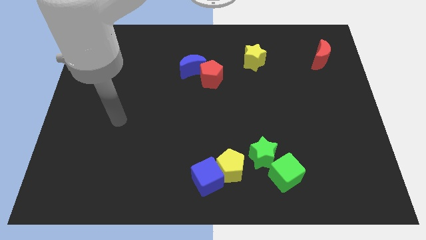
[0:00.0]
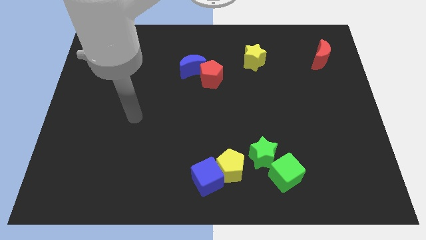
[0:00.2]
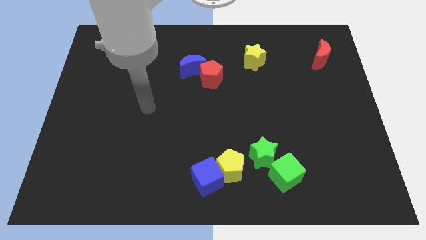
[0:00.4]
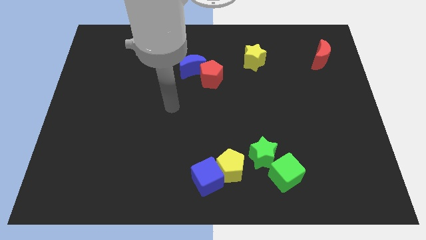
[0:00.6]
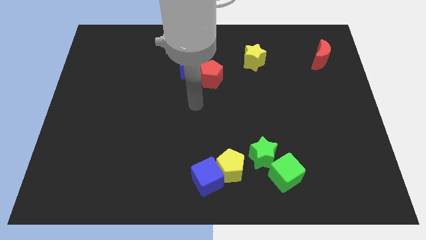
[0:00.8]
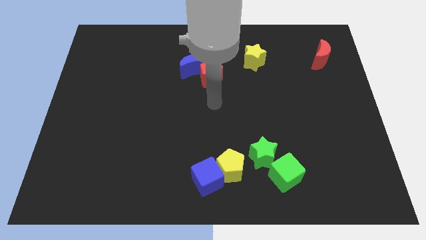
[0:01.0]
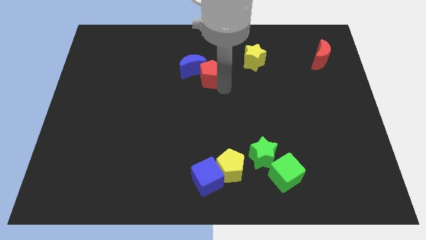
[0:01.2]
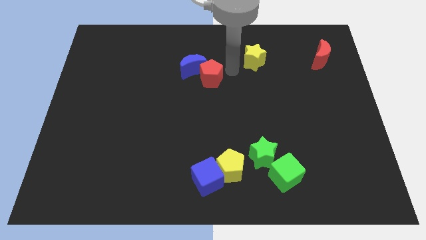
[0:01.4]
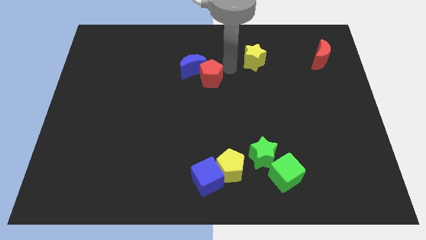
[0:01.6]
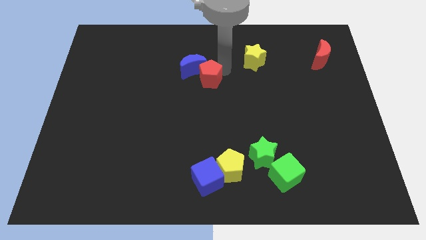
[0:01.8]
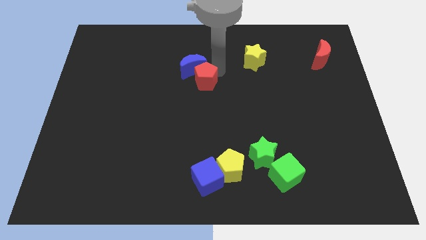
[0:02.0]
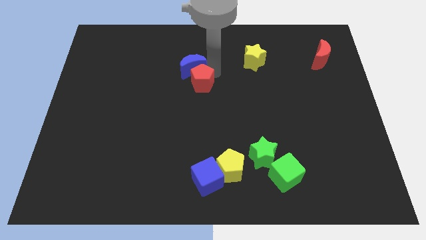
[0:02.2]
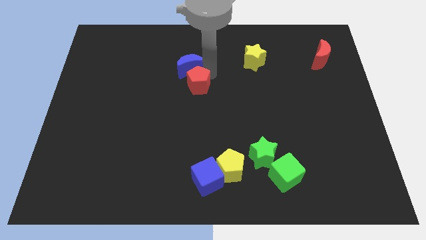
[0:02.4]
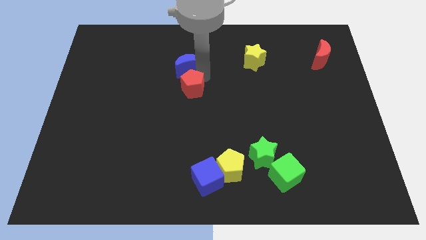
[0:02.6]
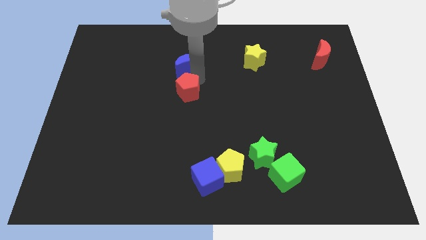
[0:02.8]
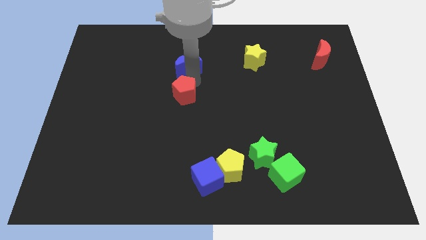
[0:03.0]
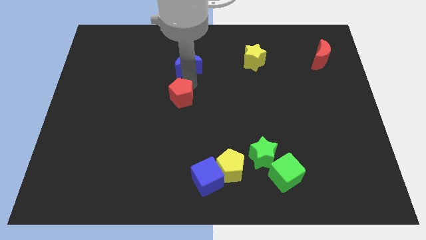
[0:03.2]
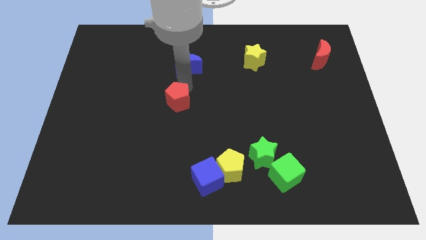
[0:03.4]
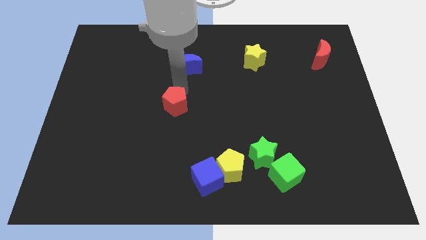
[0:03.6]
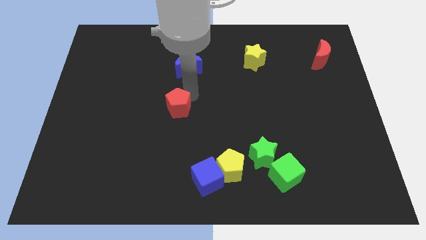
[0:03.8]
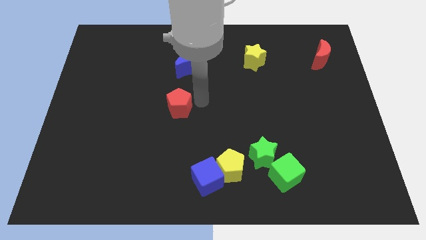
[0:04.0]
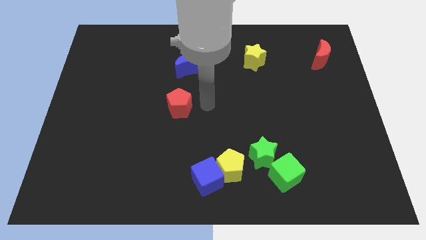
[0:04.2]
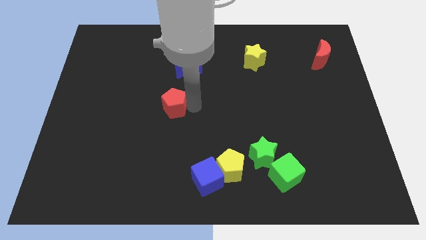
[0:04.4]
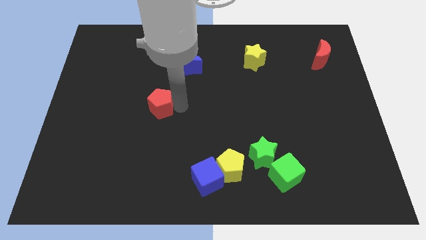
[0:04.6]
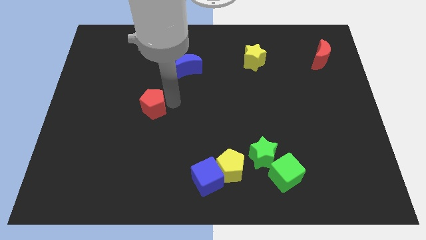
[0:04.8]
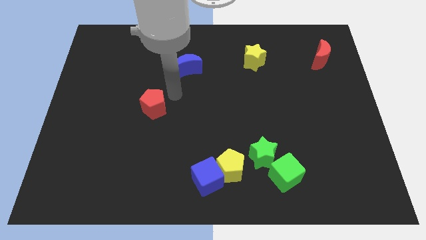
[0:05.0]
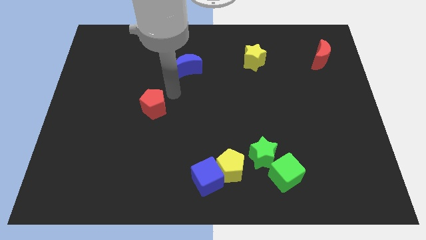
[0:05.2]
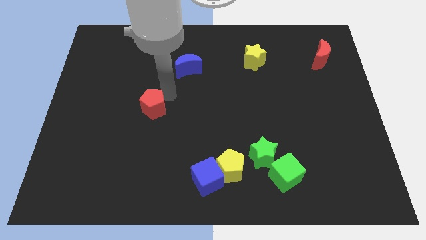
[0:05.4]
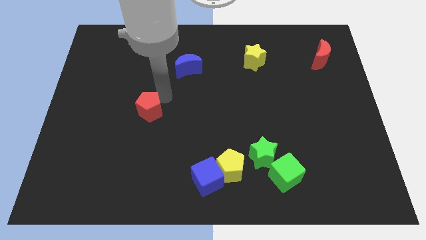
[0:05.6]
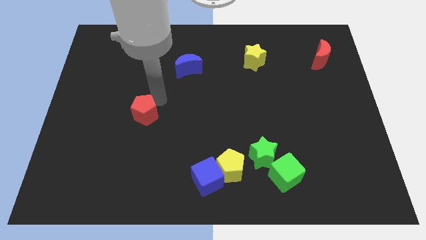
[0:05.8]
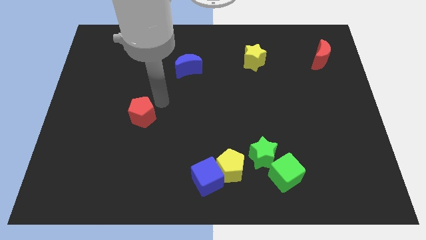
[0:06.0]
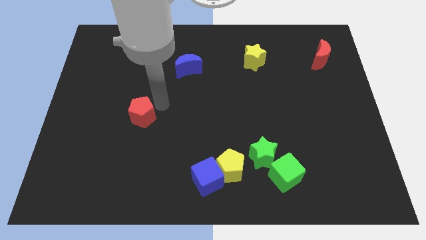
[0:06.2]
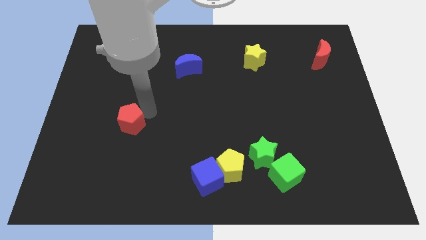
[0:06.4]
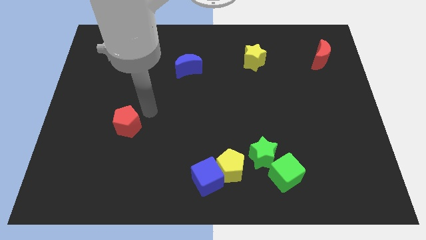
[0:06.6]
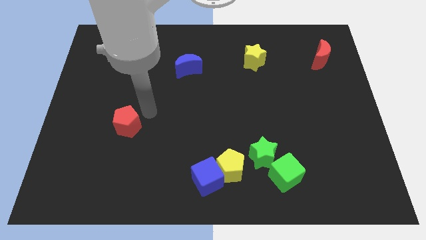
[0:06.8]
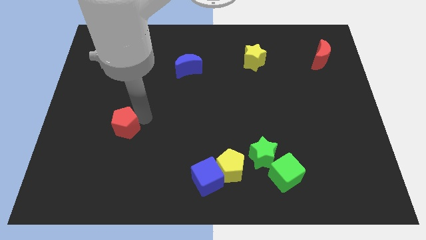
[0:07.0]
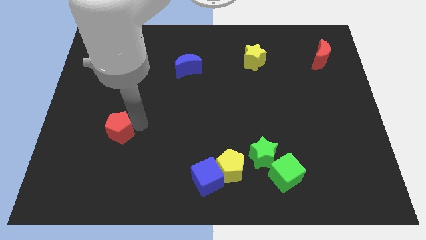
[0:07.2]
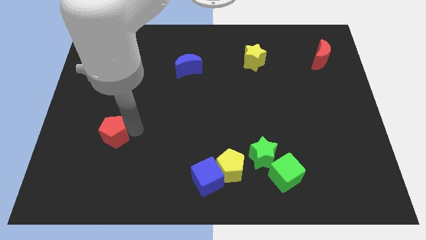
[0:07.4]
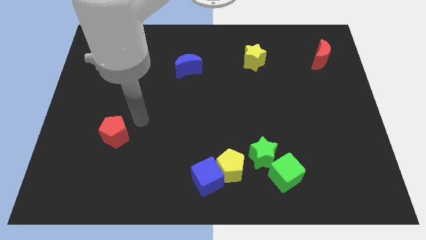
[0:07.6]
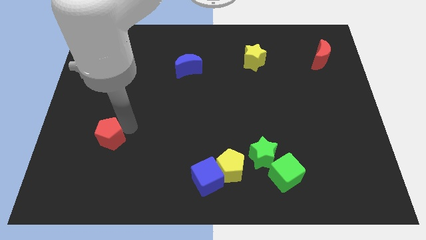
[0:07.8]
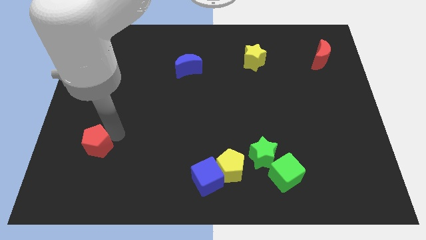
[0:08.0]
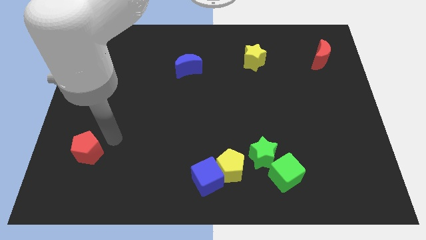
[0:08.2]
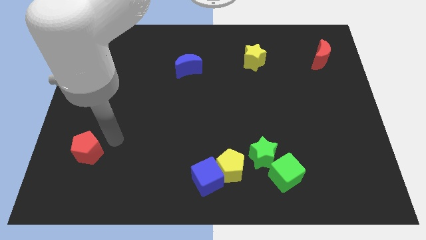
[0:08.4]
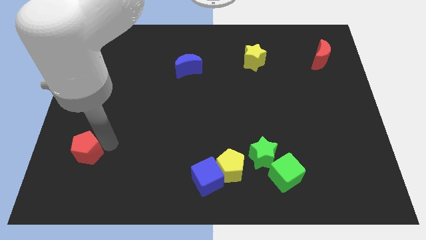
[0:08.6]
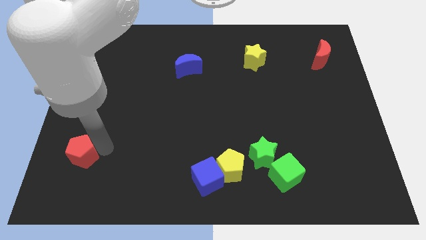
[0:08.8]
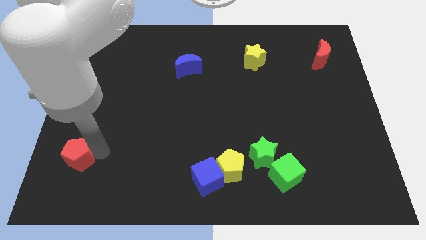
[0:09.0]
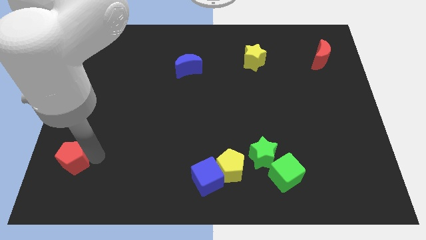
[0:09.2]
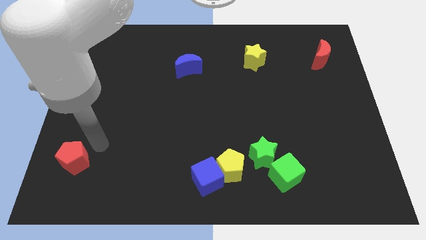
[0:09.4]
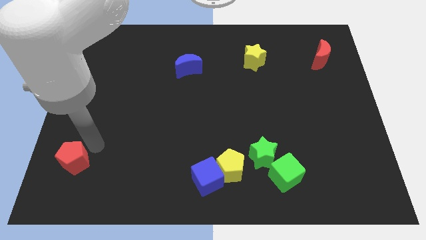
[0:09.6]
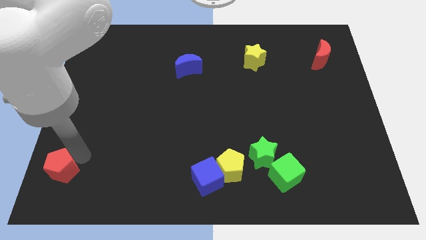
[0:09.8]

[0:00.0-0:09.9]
push the red pentagon to the bottom left corner

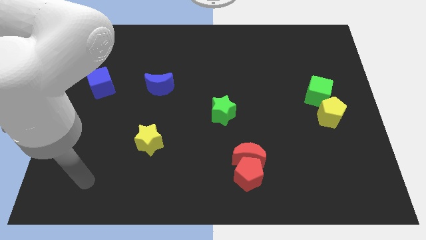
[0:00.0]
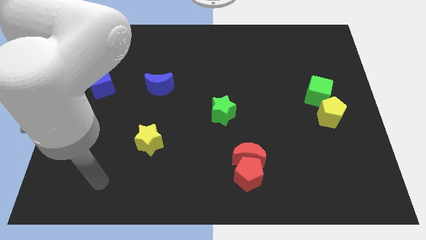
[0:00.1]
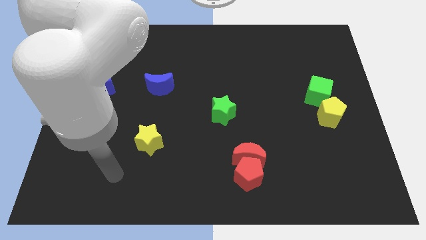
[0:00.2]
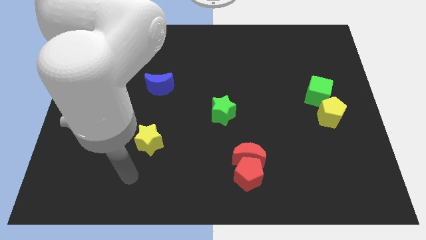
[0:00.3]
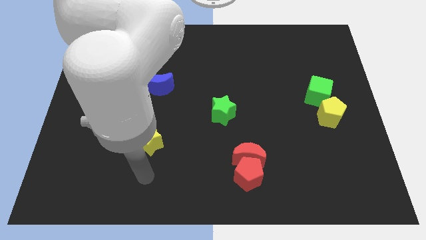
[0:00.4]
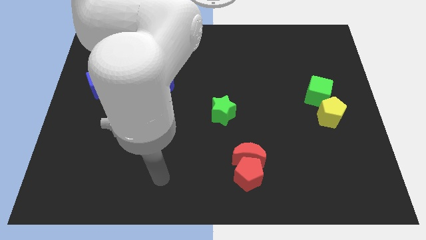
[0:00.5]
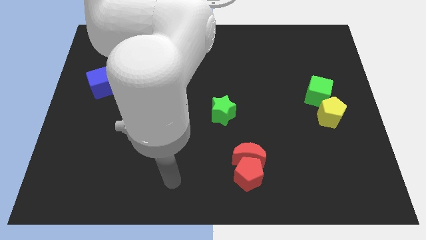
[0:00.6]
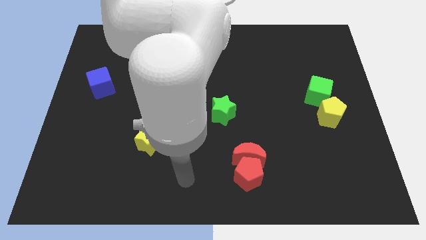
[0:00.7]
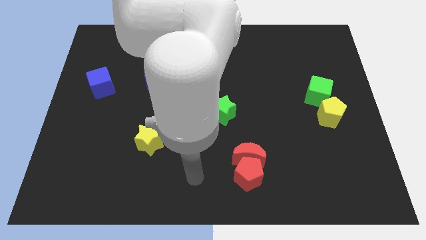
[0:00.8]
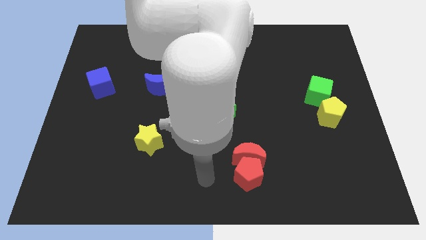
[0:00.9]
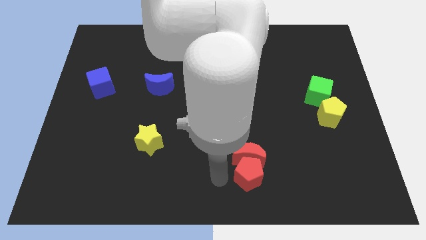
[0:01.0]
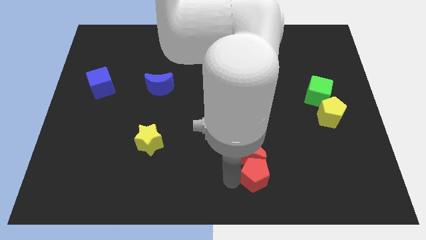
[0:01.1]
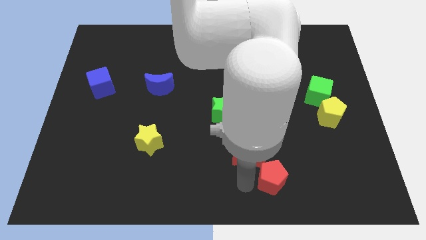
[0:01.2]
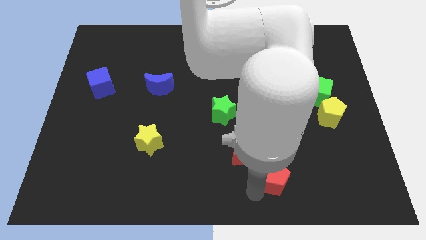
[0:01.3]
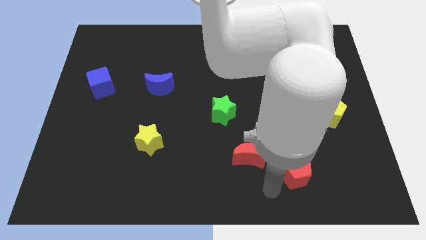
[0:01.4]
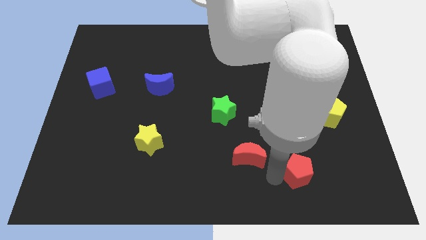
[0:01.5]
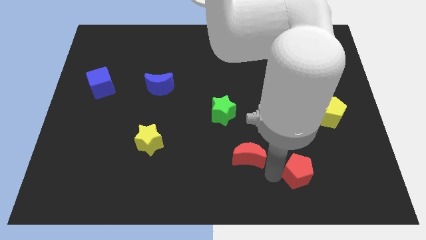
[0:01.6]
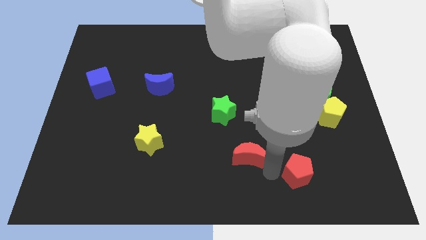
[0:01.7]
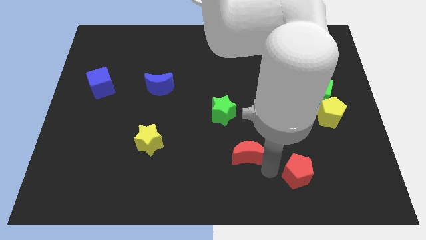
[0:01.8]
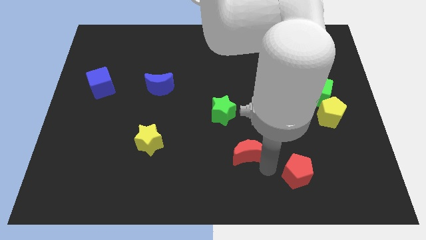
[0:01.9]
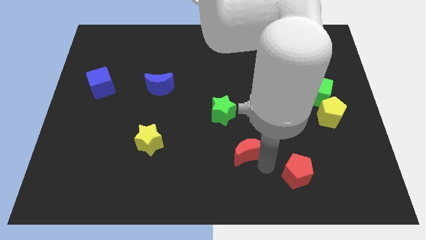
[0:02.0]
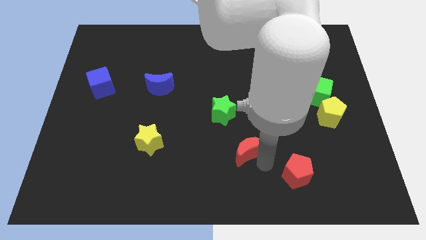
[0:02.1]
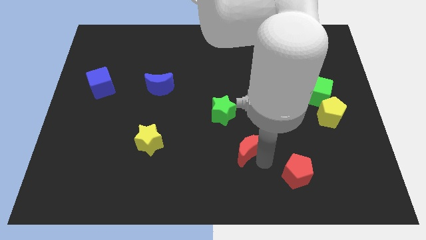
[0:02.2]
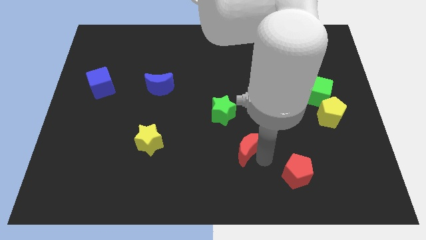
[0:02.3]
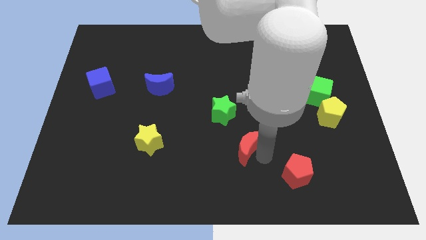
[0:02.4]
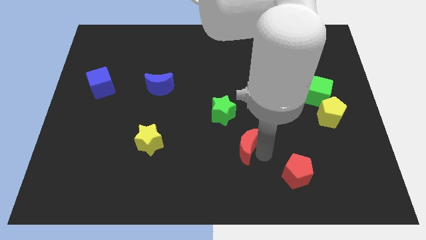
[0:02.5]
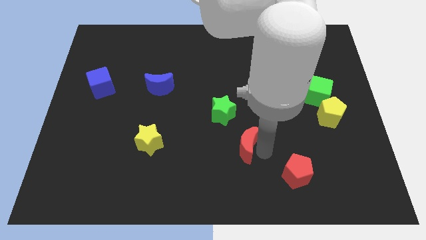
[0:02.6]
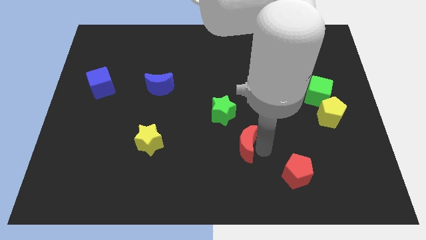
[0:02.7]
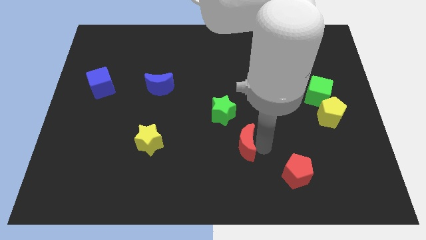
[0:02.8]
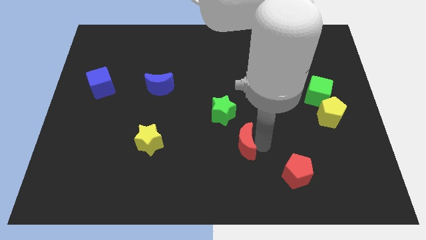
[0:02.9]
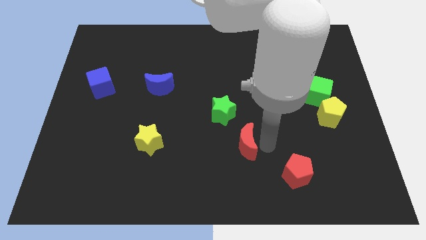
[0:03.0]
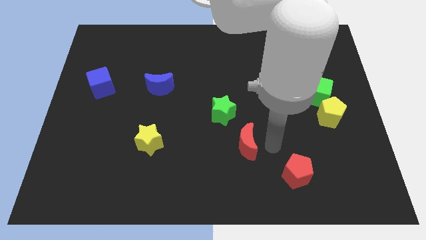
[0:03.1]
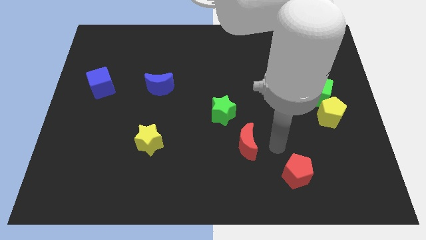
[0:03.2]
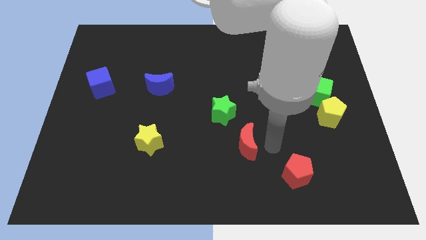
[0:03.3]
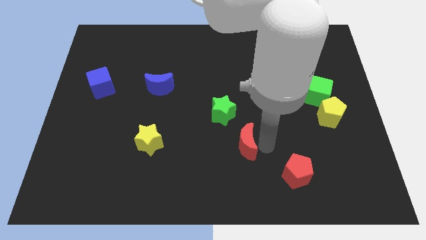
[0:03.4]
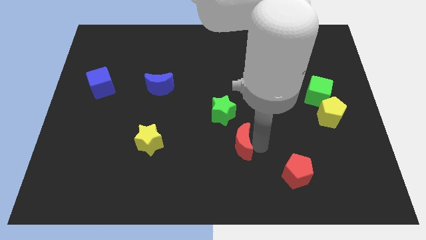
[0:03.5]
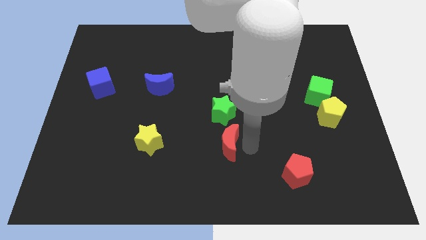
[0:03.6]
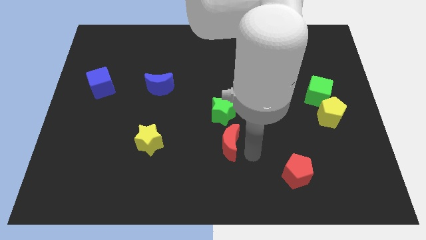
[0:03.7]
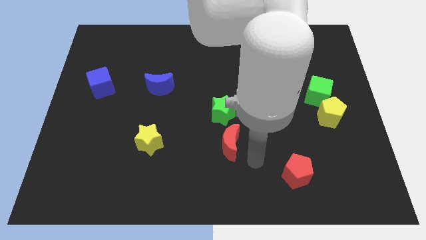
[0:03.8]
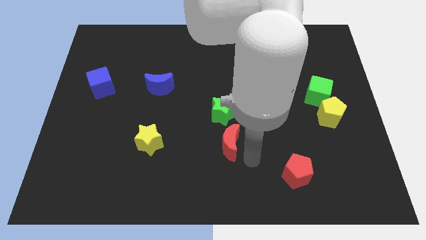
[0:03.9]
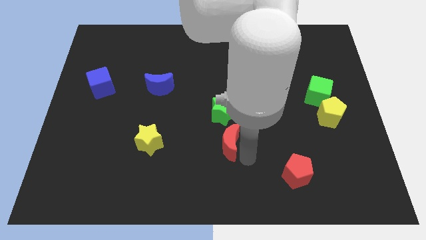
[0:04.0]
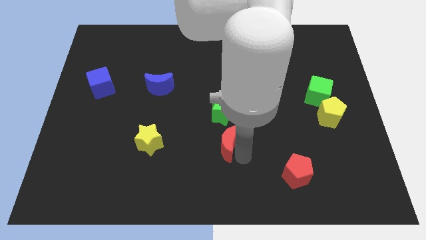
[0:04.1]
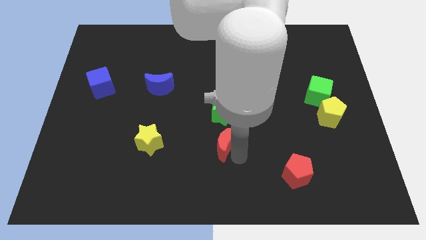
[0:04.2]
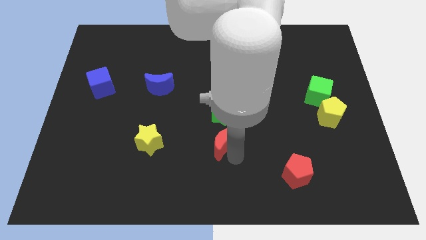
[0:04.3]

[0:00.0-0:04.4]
put the red moon to the middle of the board
